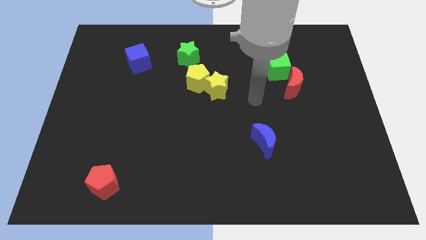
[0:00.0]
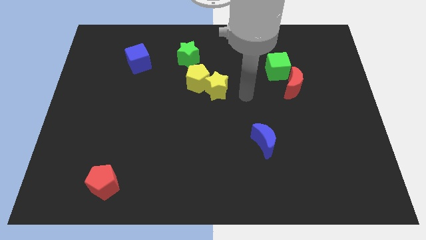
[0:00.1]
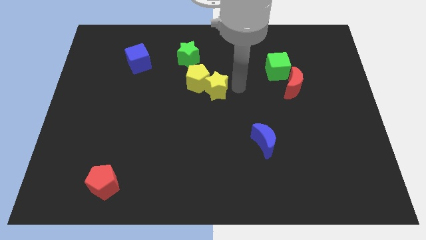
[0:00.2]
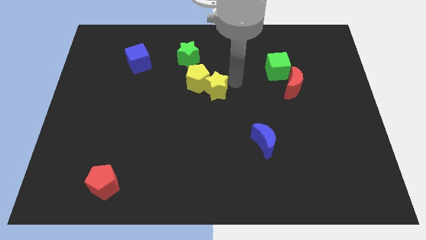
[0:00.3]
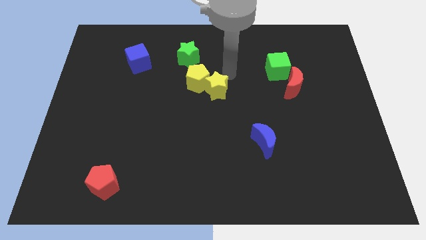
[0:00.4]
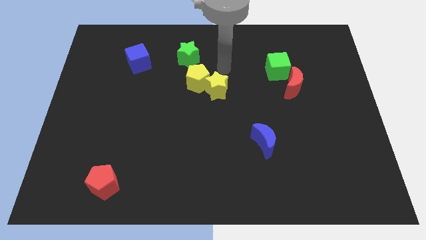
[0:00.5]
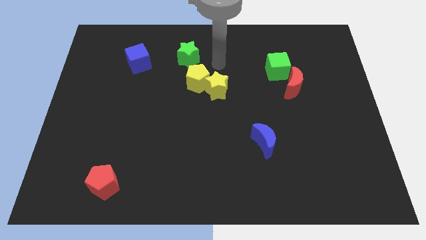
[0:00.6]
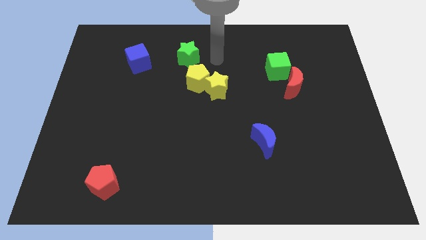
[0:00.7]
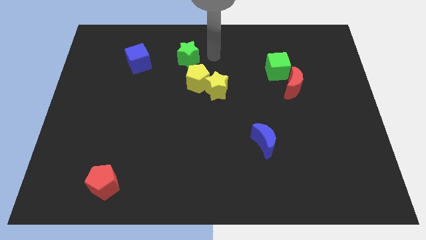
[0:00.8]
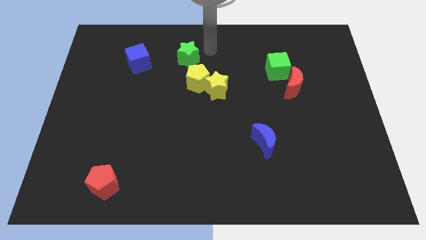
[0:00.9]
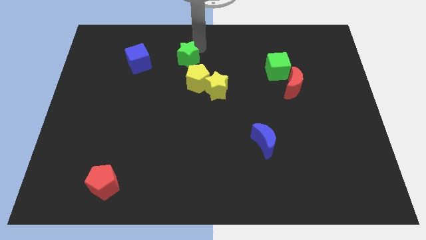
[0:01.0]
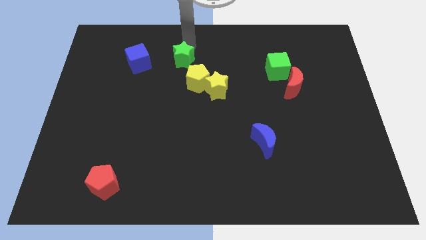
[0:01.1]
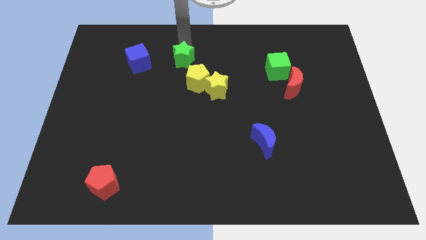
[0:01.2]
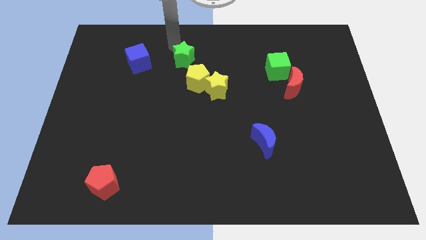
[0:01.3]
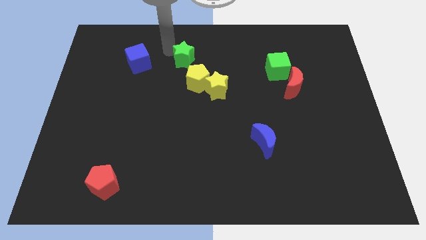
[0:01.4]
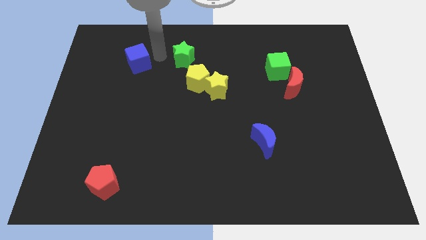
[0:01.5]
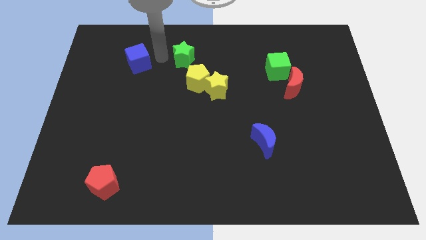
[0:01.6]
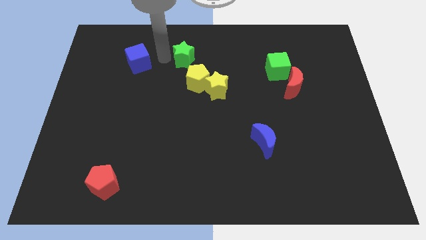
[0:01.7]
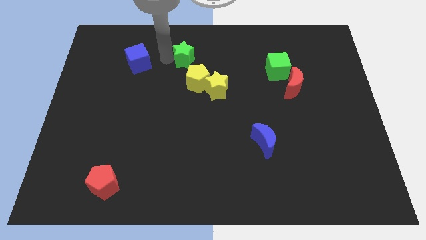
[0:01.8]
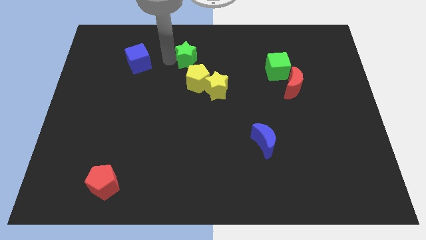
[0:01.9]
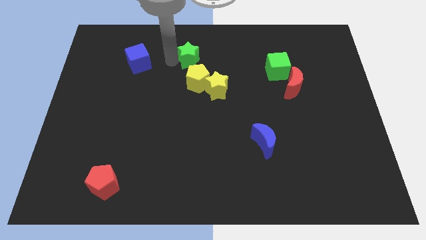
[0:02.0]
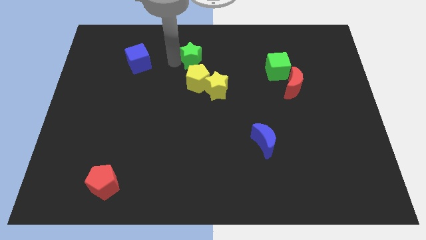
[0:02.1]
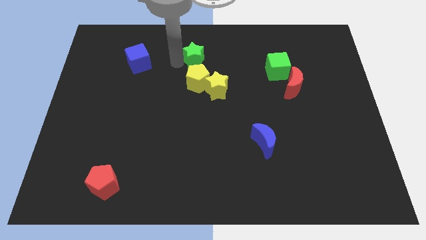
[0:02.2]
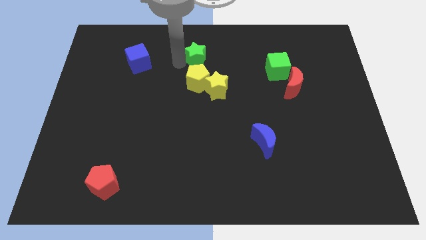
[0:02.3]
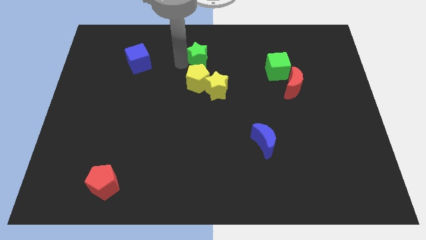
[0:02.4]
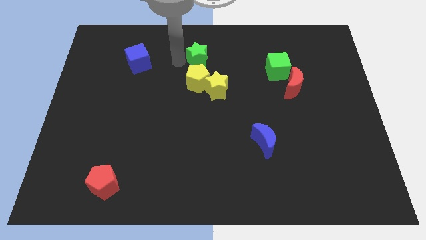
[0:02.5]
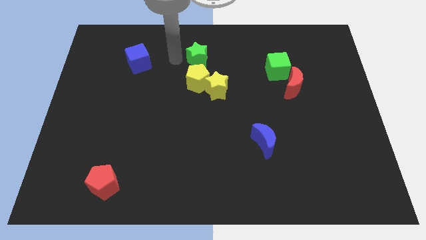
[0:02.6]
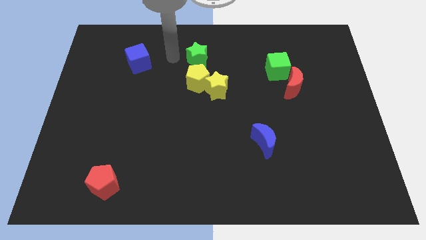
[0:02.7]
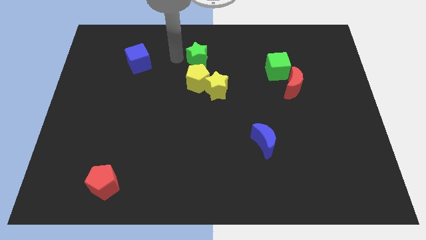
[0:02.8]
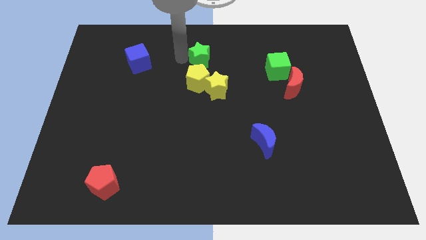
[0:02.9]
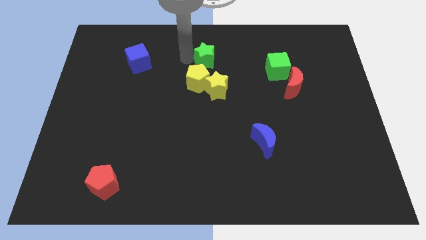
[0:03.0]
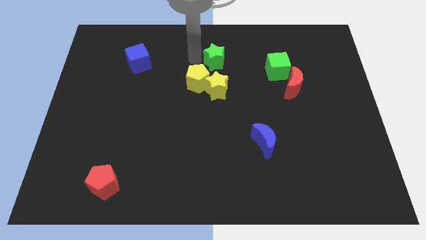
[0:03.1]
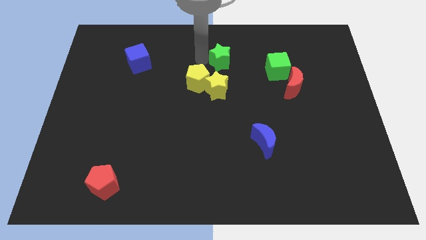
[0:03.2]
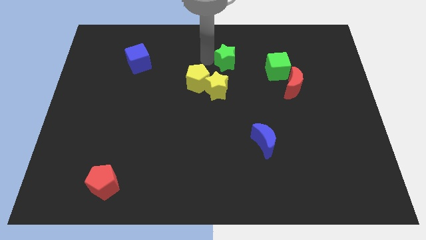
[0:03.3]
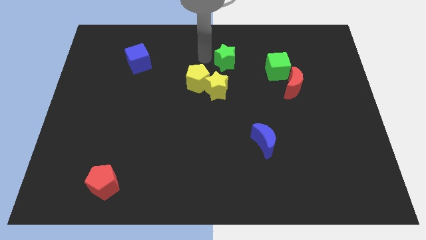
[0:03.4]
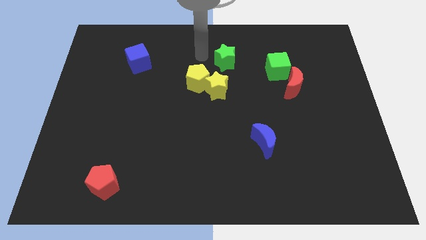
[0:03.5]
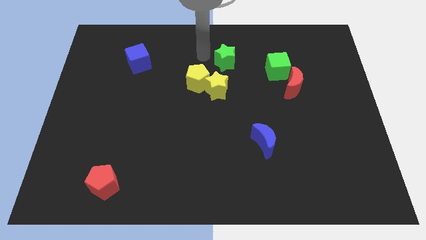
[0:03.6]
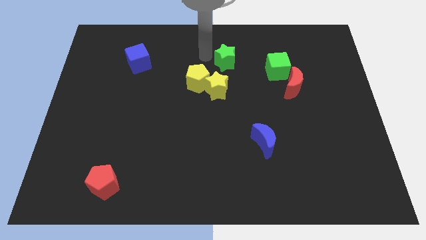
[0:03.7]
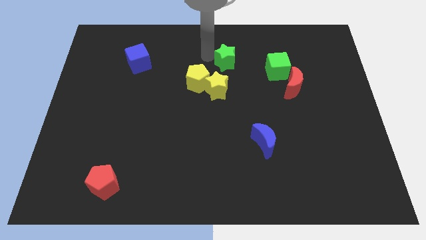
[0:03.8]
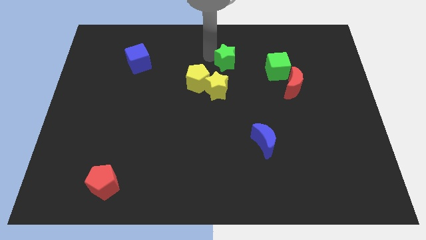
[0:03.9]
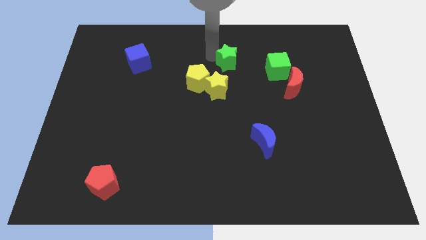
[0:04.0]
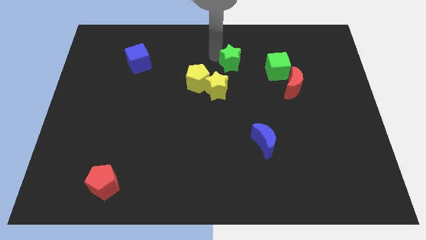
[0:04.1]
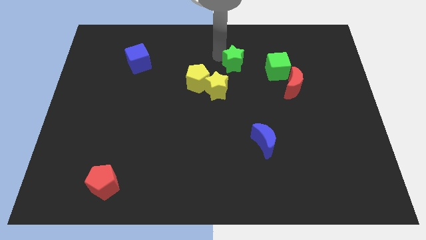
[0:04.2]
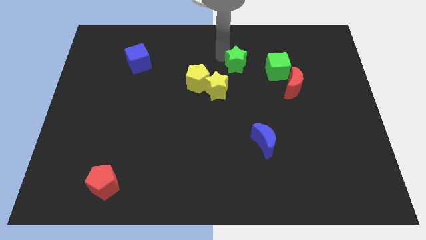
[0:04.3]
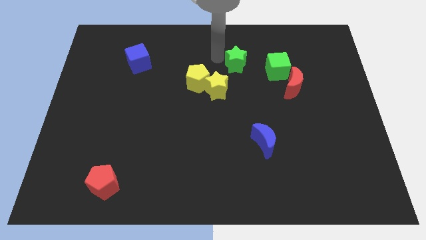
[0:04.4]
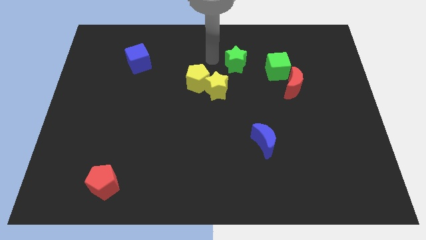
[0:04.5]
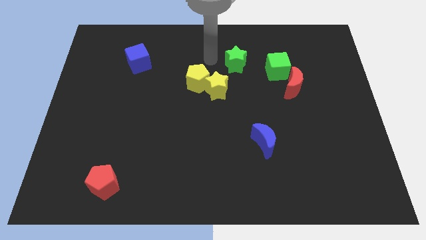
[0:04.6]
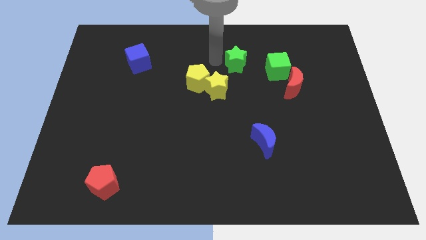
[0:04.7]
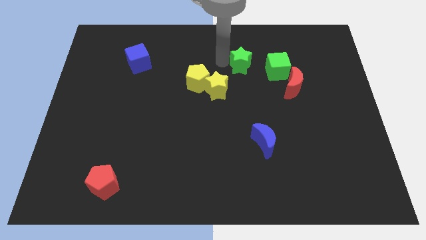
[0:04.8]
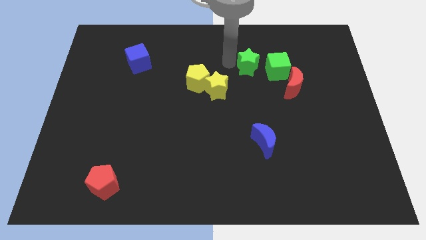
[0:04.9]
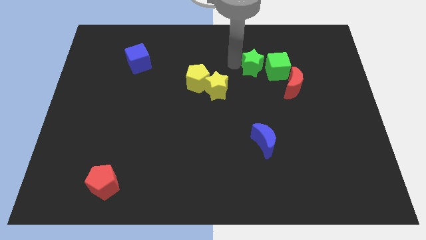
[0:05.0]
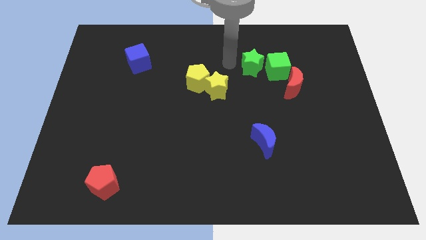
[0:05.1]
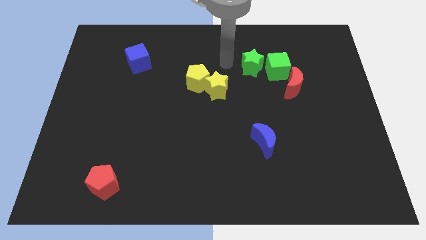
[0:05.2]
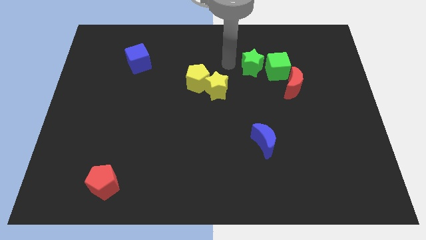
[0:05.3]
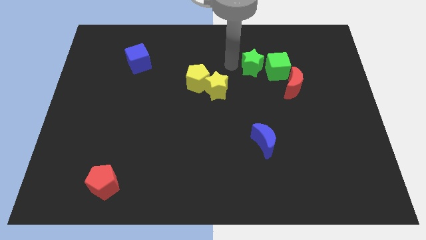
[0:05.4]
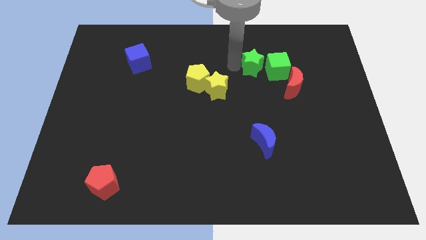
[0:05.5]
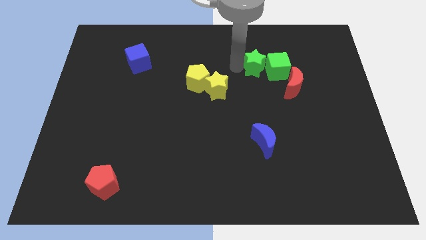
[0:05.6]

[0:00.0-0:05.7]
put the green star towards the green cube

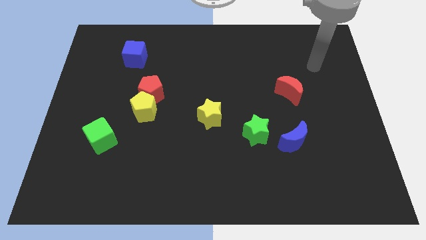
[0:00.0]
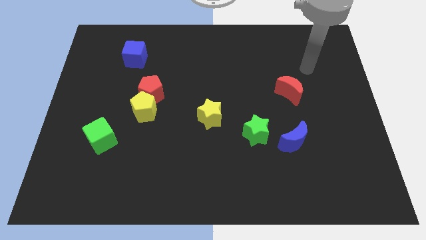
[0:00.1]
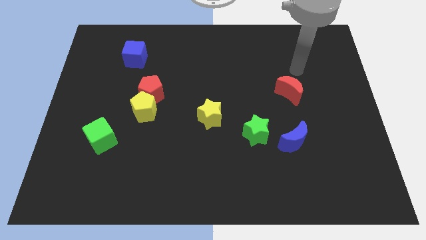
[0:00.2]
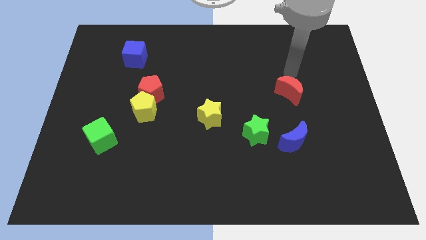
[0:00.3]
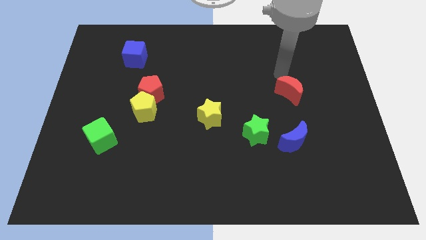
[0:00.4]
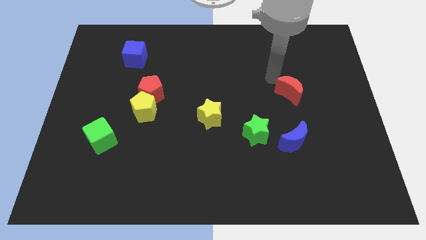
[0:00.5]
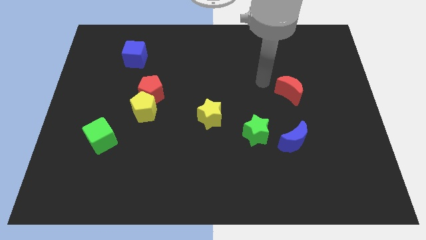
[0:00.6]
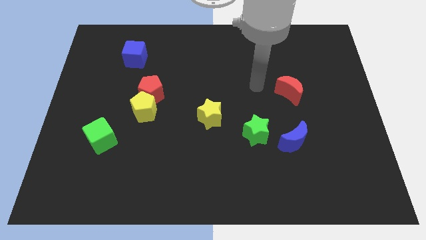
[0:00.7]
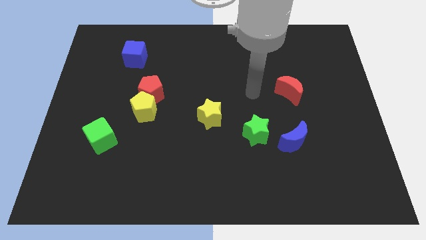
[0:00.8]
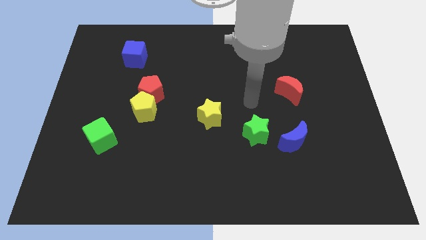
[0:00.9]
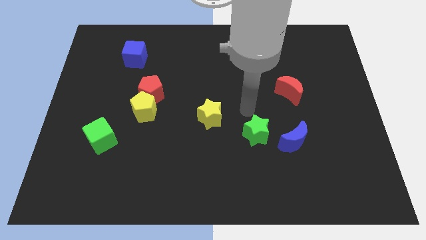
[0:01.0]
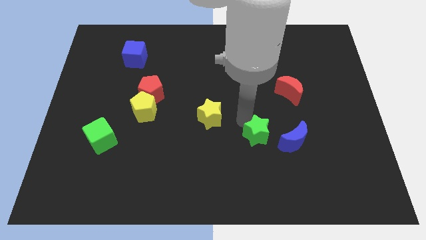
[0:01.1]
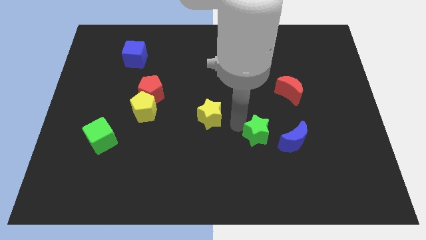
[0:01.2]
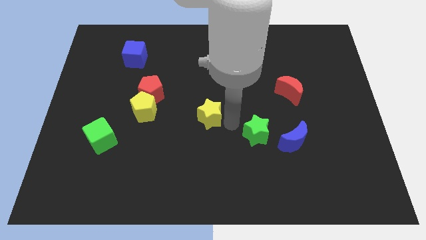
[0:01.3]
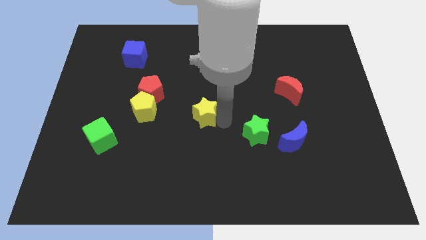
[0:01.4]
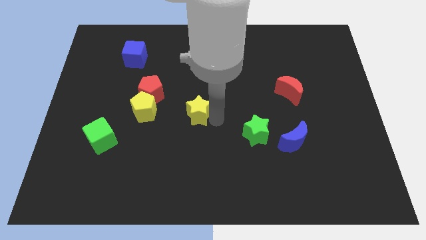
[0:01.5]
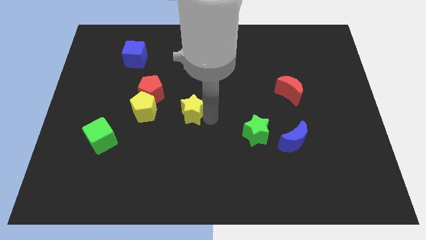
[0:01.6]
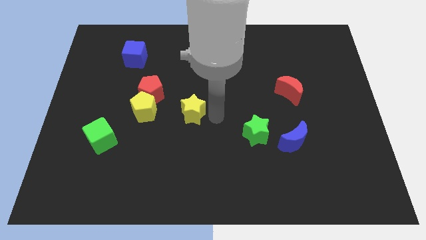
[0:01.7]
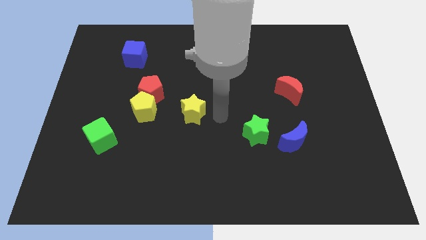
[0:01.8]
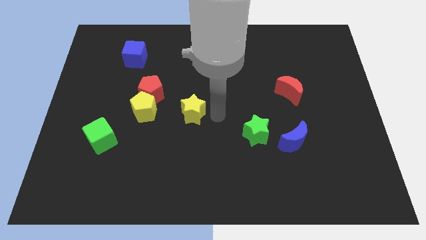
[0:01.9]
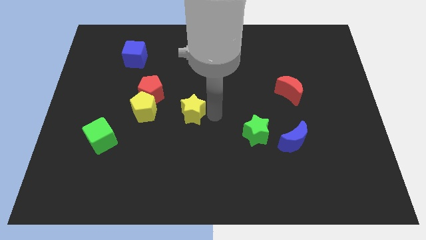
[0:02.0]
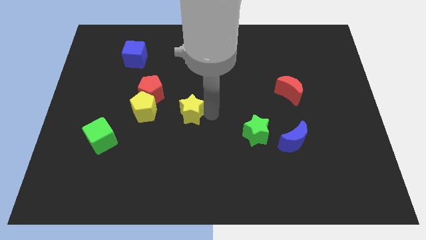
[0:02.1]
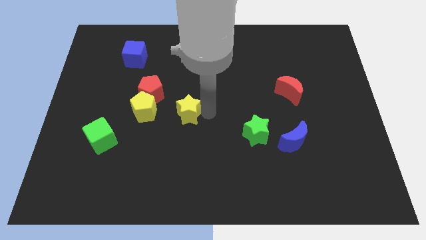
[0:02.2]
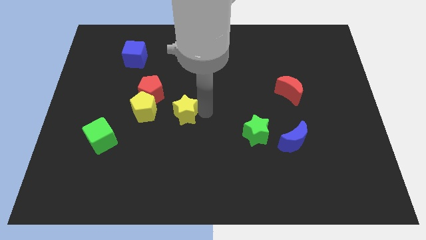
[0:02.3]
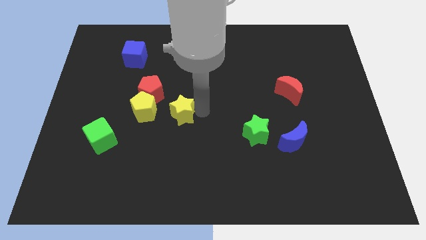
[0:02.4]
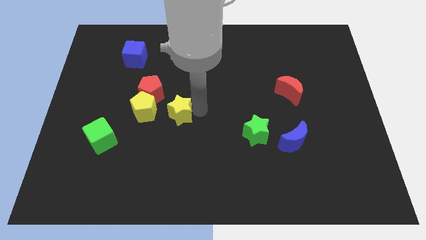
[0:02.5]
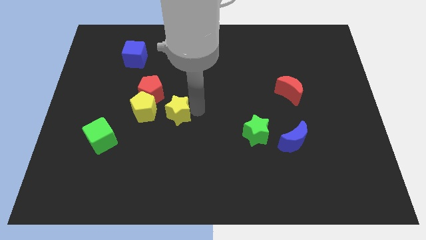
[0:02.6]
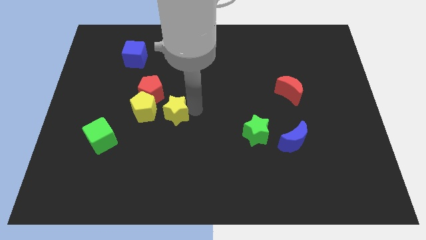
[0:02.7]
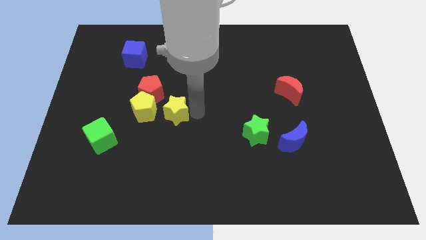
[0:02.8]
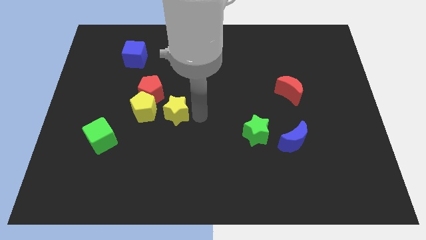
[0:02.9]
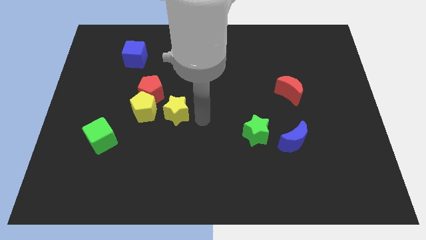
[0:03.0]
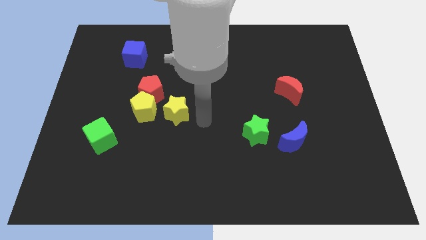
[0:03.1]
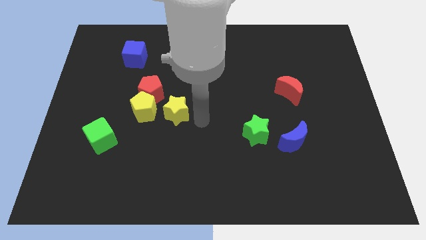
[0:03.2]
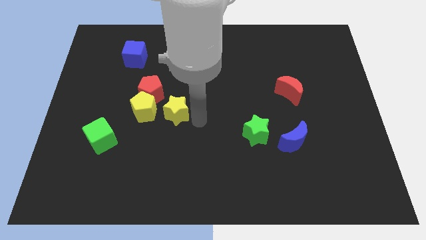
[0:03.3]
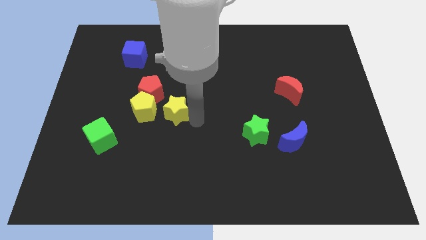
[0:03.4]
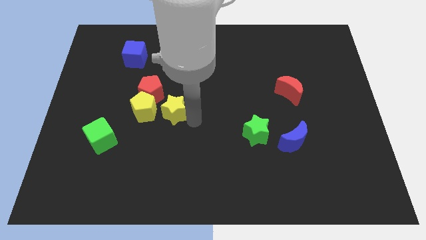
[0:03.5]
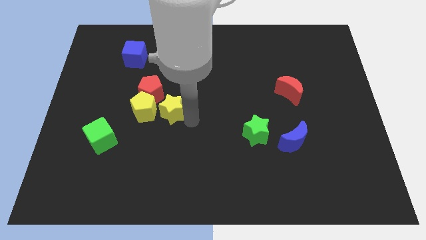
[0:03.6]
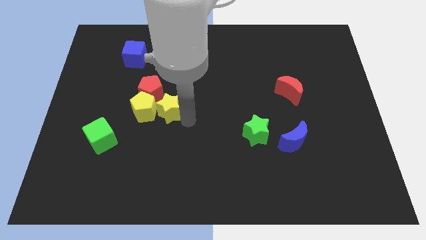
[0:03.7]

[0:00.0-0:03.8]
push the yellow star close to the yellow pentagon
